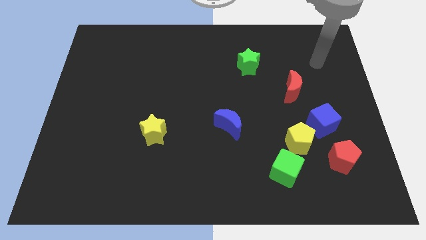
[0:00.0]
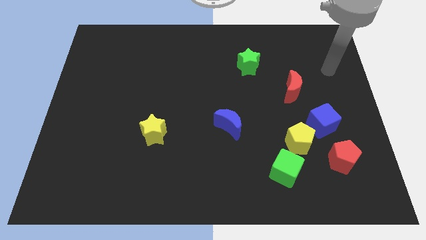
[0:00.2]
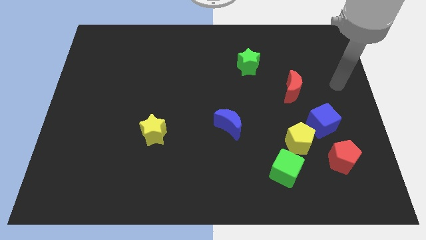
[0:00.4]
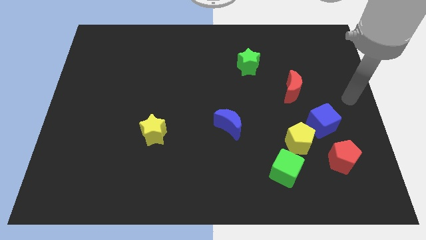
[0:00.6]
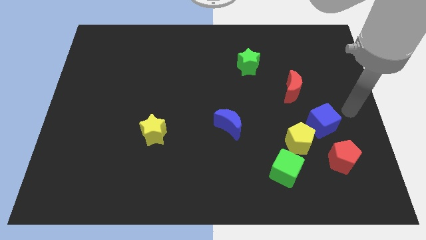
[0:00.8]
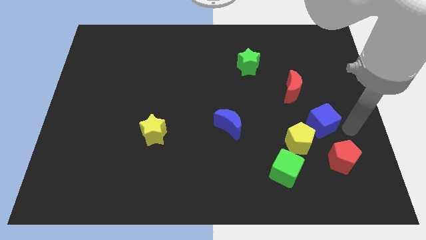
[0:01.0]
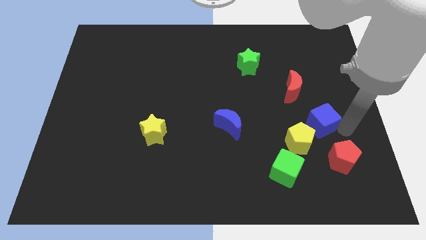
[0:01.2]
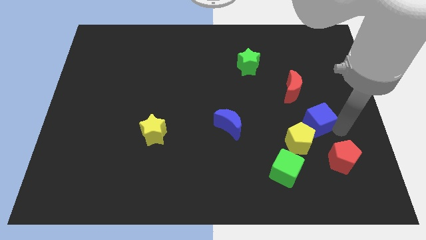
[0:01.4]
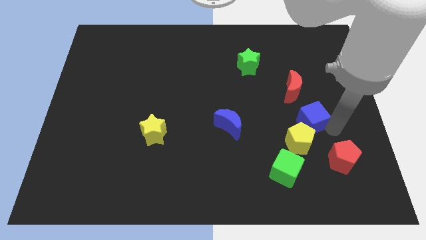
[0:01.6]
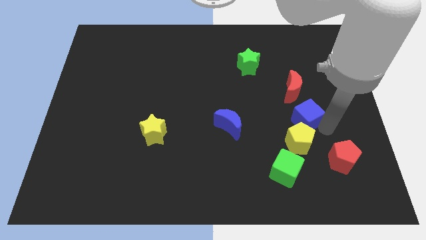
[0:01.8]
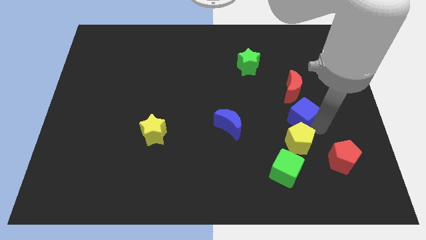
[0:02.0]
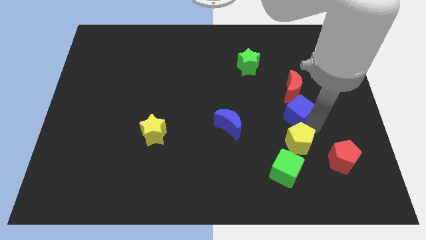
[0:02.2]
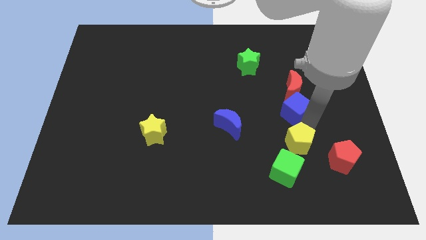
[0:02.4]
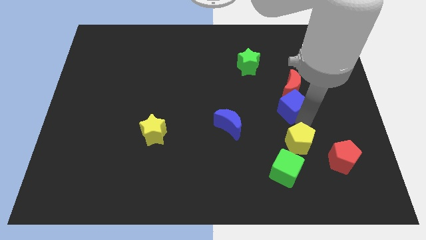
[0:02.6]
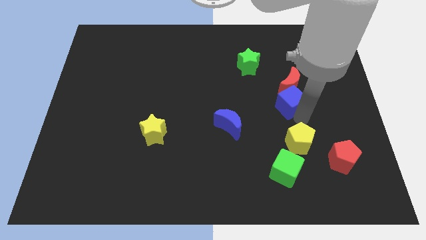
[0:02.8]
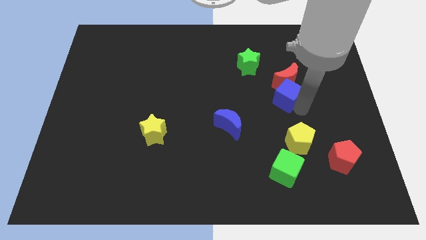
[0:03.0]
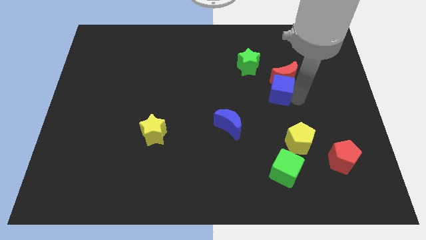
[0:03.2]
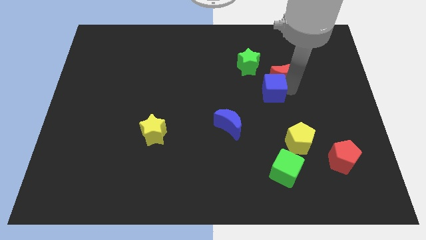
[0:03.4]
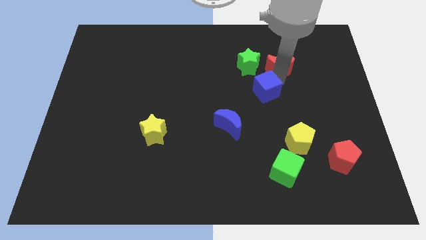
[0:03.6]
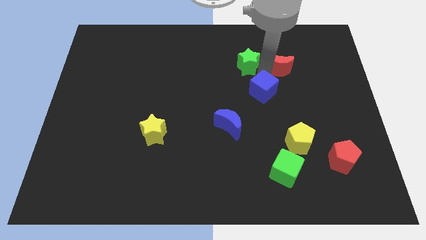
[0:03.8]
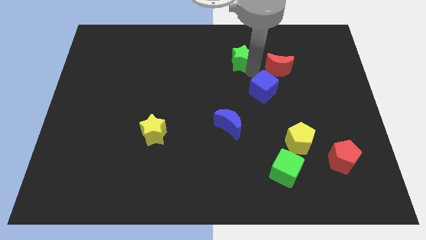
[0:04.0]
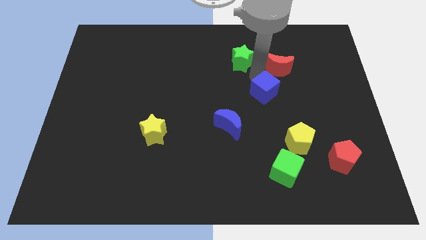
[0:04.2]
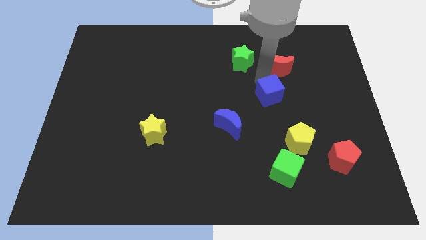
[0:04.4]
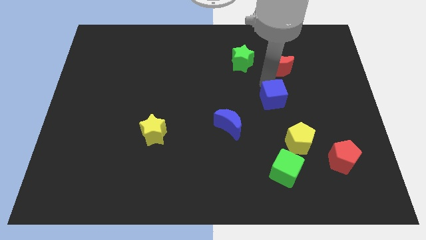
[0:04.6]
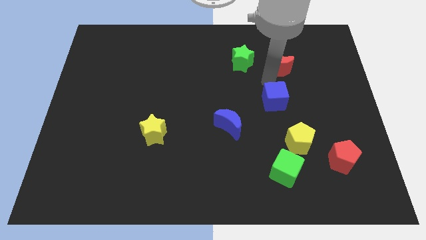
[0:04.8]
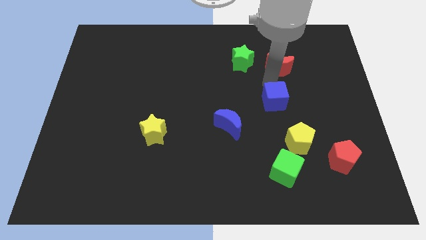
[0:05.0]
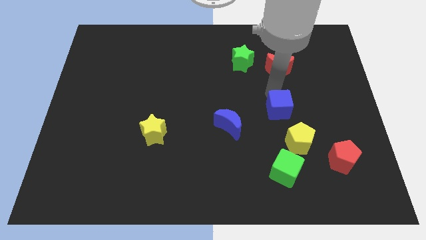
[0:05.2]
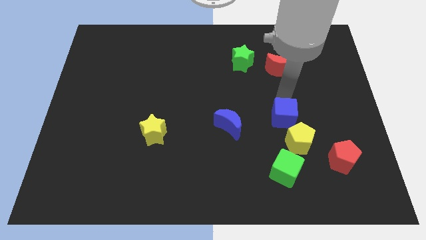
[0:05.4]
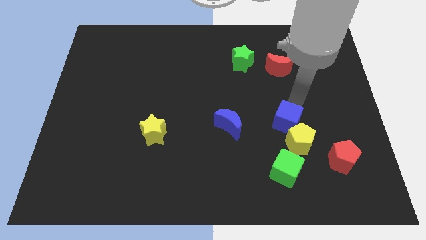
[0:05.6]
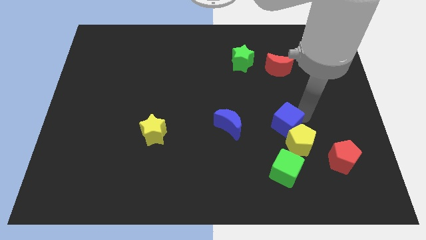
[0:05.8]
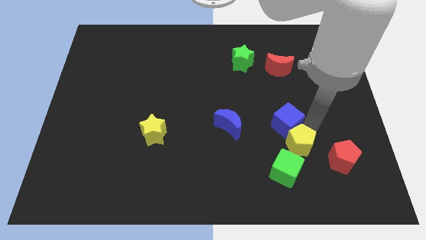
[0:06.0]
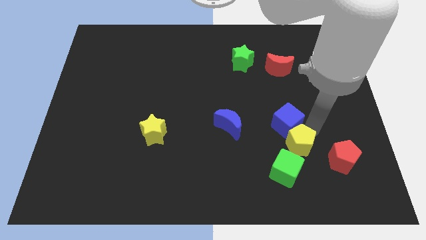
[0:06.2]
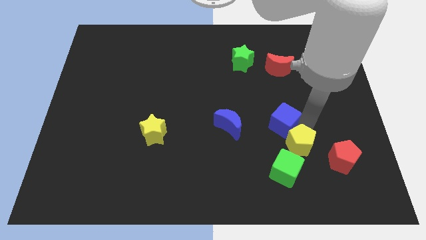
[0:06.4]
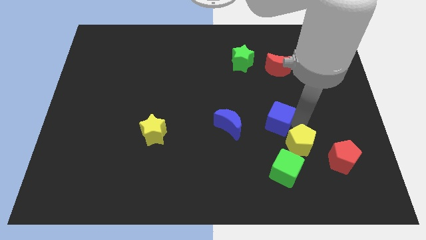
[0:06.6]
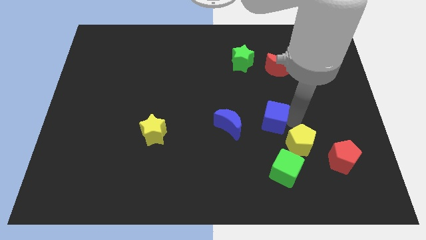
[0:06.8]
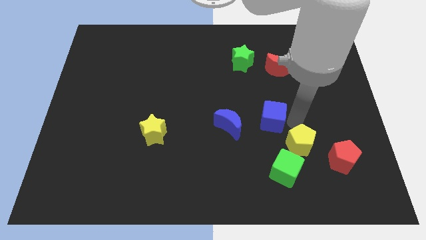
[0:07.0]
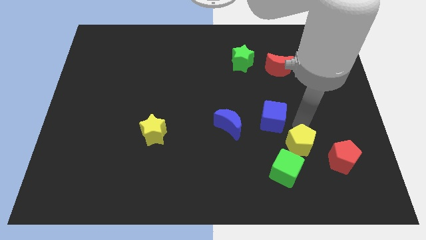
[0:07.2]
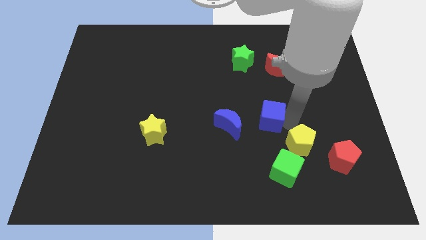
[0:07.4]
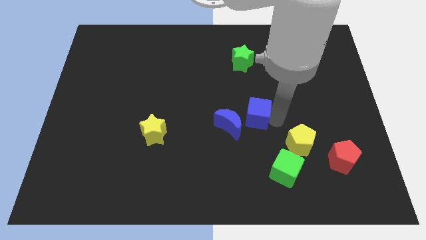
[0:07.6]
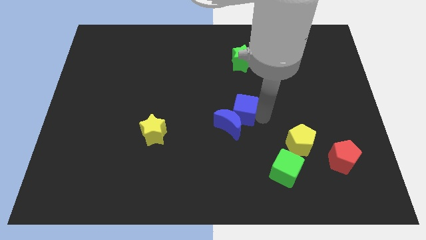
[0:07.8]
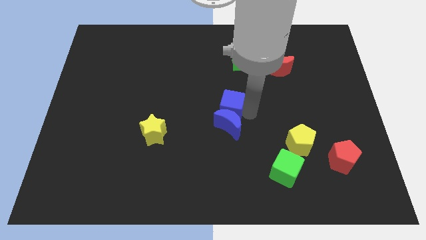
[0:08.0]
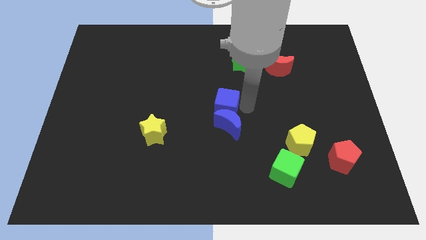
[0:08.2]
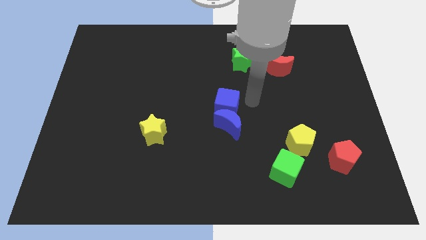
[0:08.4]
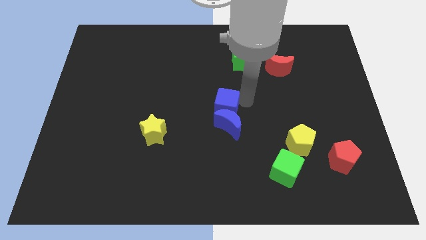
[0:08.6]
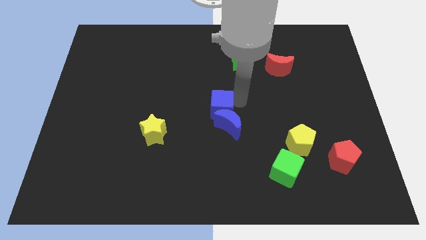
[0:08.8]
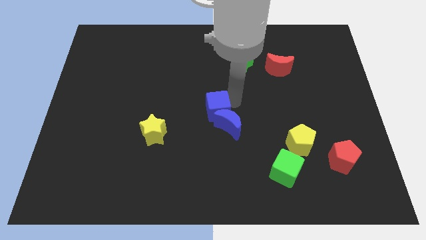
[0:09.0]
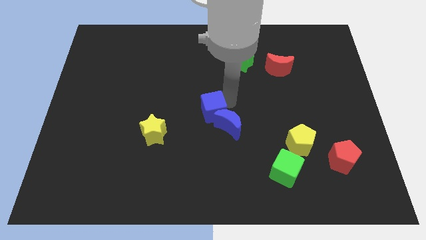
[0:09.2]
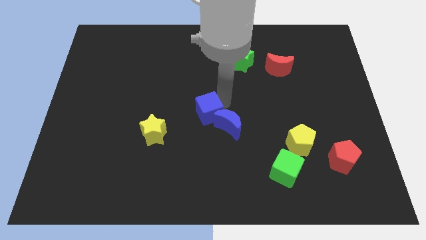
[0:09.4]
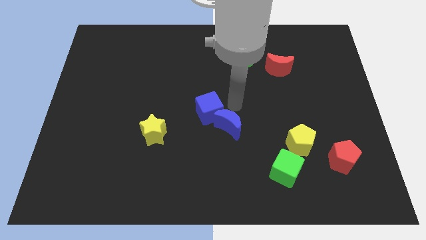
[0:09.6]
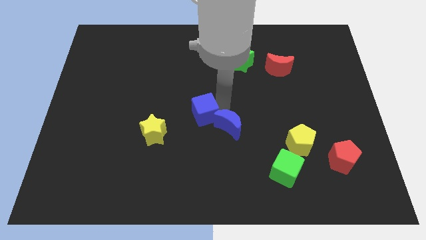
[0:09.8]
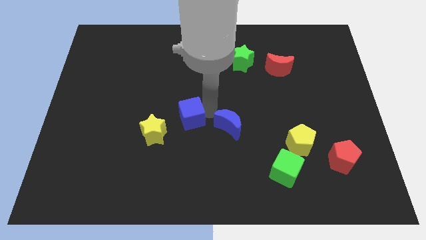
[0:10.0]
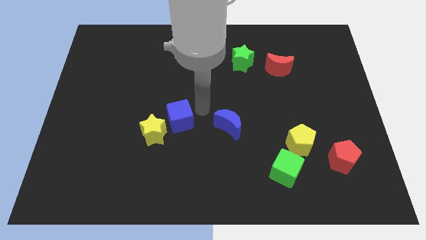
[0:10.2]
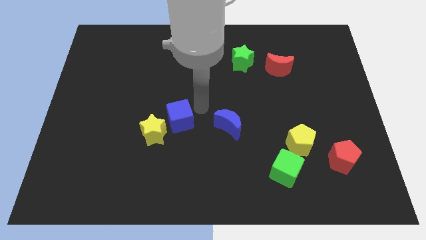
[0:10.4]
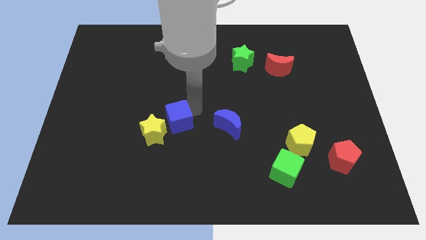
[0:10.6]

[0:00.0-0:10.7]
slide the blue cube towards the yellow star

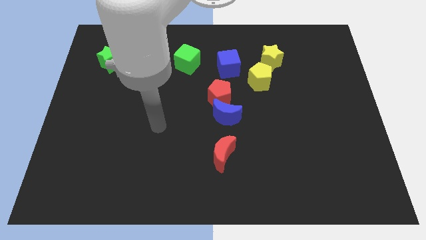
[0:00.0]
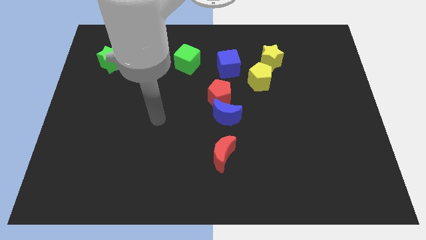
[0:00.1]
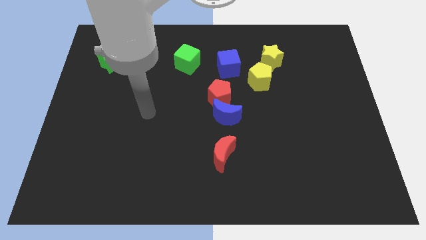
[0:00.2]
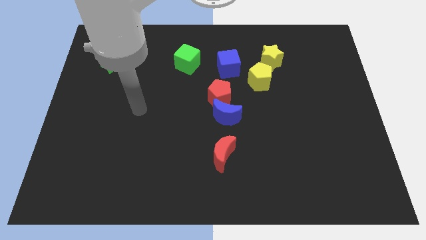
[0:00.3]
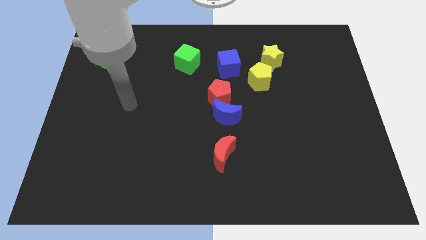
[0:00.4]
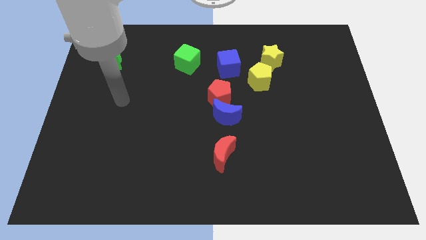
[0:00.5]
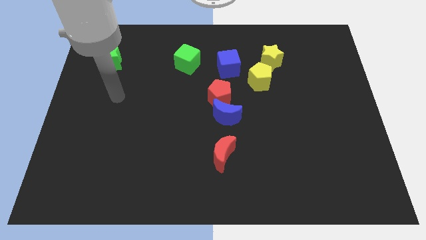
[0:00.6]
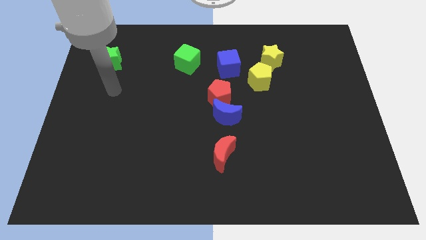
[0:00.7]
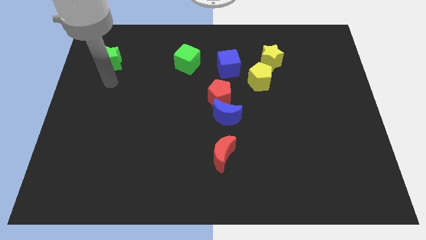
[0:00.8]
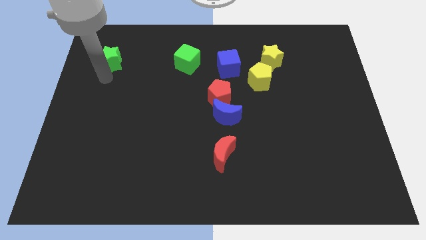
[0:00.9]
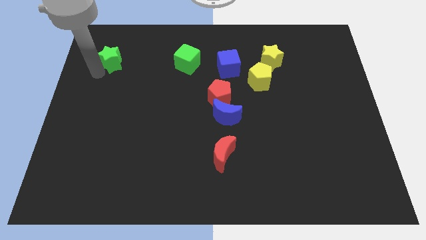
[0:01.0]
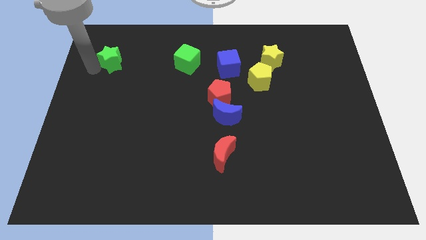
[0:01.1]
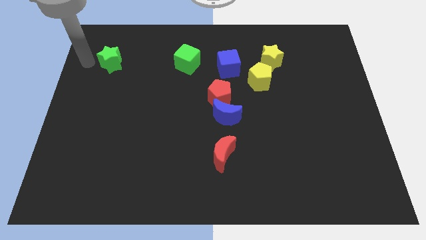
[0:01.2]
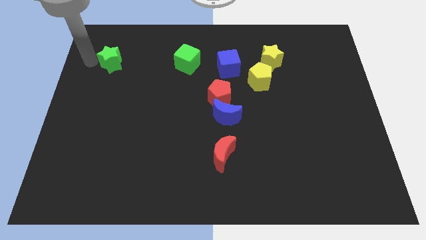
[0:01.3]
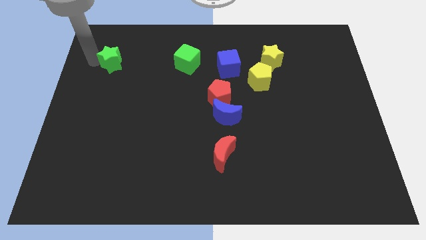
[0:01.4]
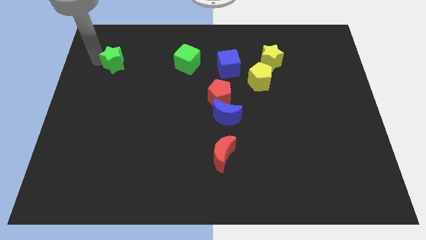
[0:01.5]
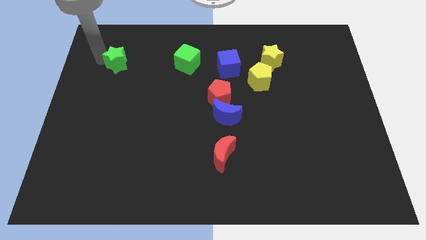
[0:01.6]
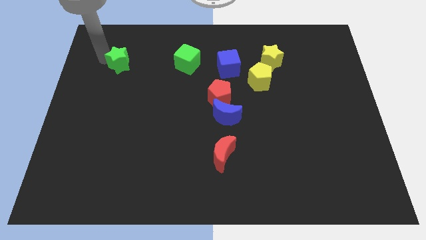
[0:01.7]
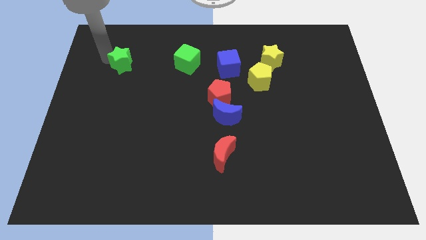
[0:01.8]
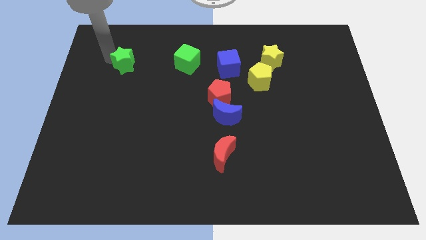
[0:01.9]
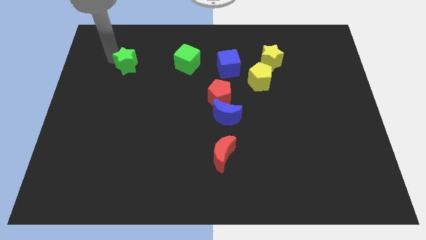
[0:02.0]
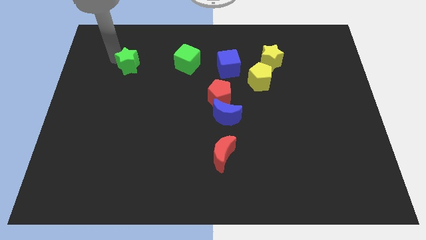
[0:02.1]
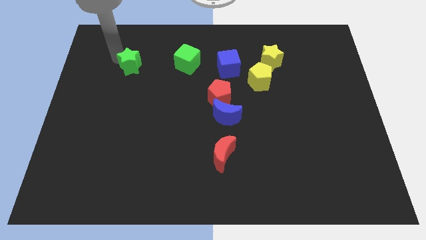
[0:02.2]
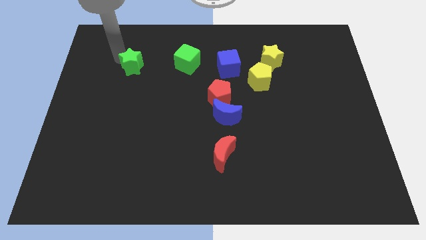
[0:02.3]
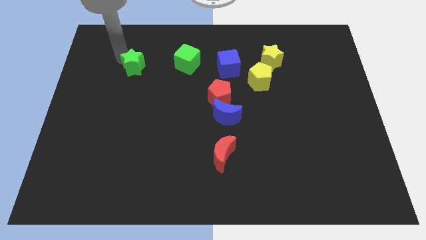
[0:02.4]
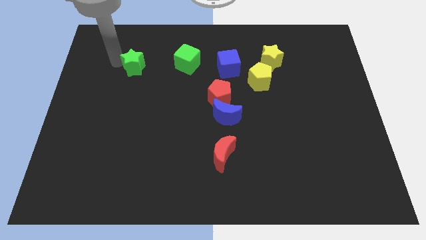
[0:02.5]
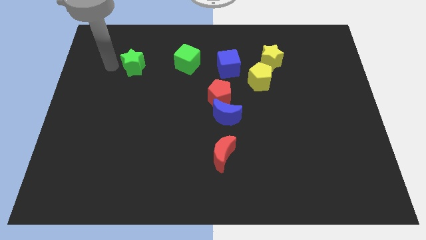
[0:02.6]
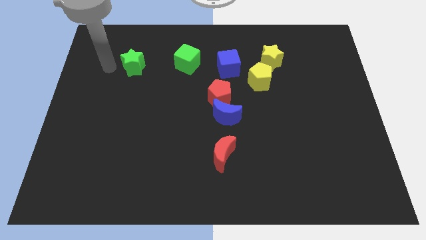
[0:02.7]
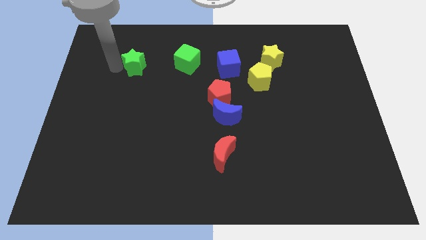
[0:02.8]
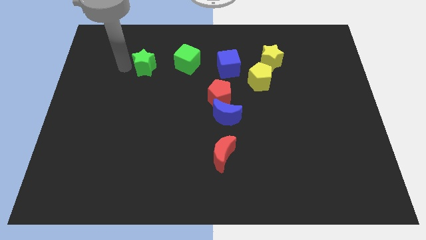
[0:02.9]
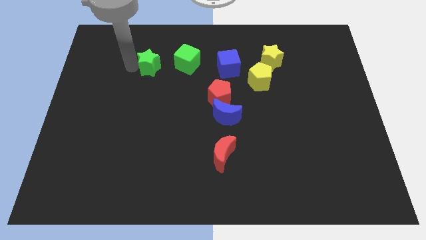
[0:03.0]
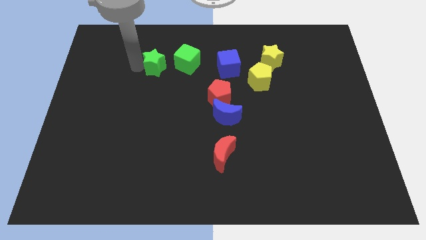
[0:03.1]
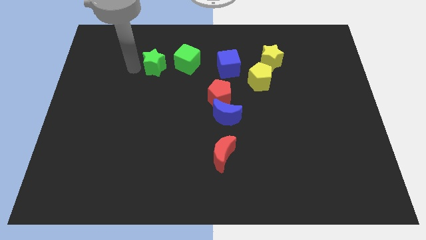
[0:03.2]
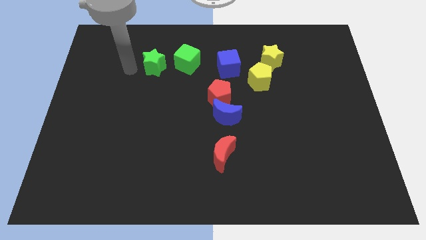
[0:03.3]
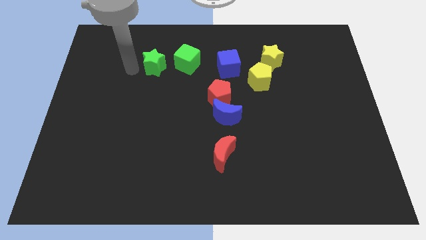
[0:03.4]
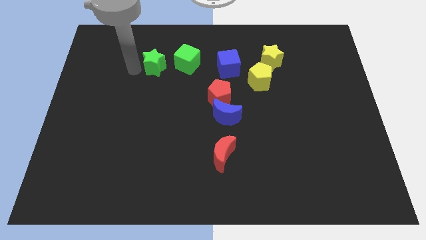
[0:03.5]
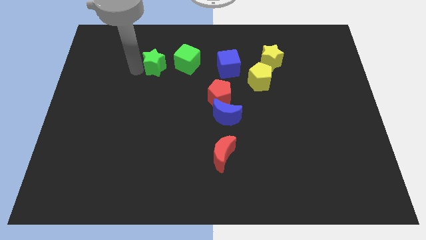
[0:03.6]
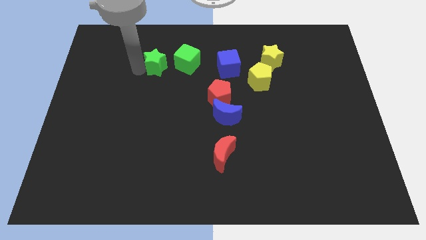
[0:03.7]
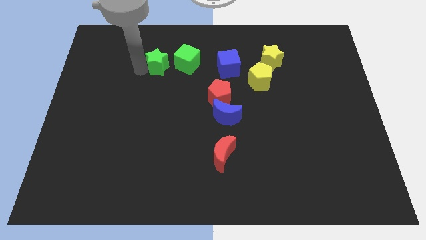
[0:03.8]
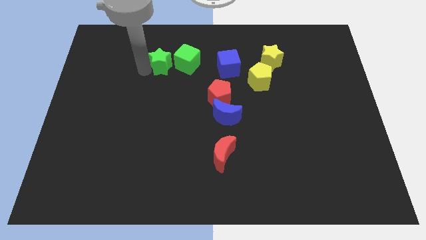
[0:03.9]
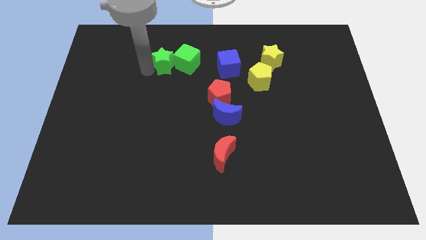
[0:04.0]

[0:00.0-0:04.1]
put the green star to the green cube
